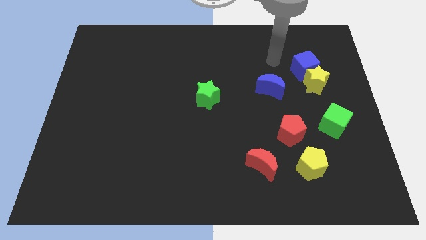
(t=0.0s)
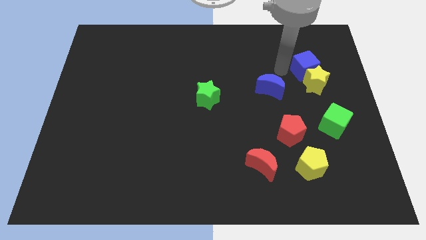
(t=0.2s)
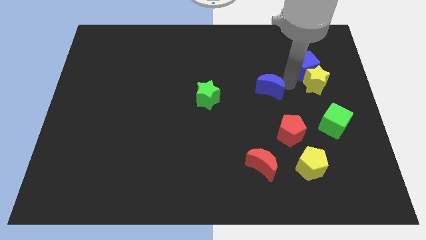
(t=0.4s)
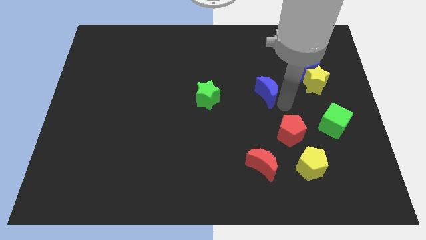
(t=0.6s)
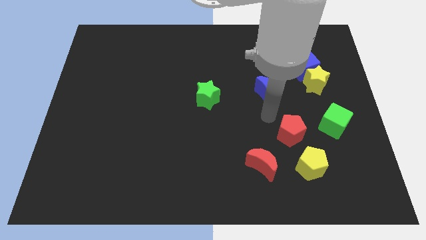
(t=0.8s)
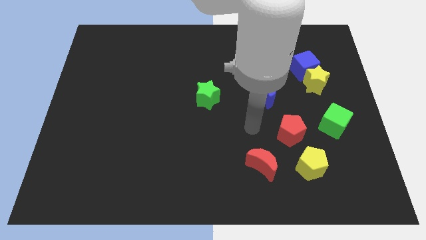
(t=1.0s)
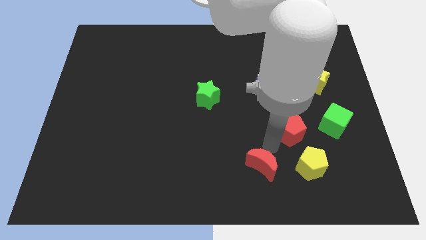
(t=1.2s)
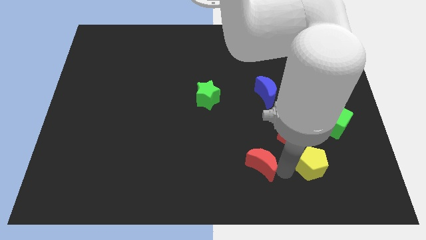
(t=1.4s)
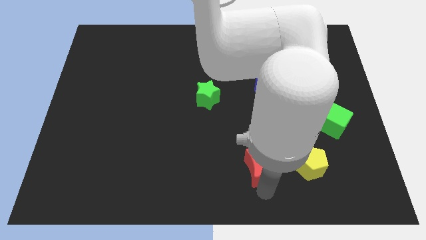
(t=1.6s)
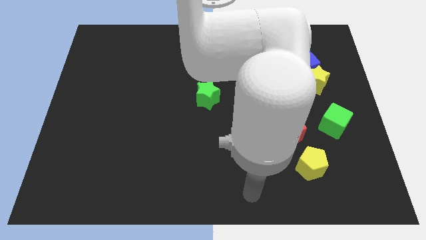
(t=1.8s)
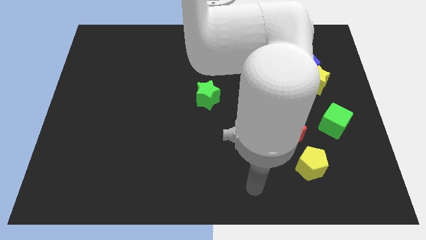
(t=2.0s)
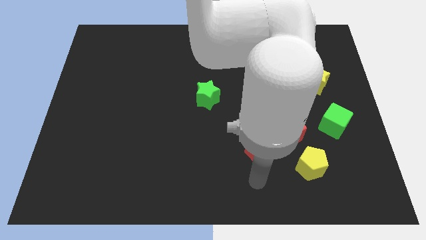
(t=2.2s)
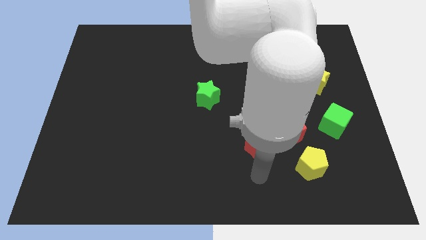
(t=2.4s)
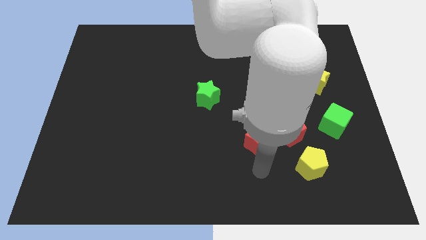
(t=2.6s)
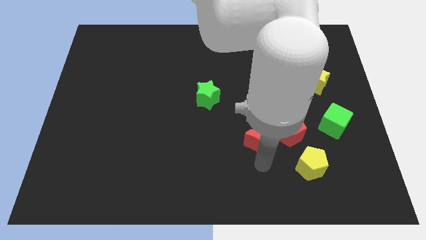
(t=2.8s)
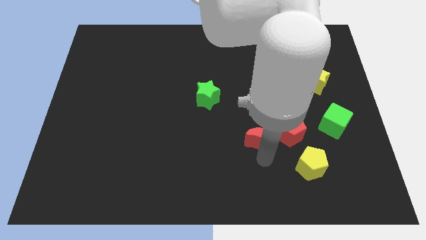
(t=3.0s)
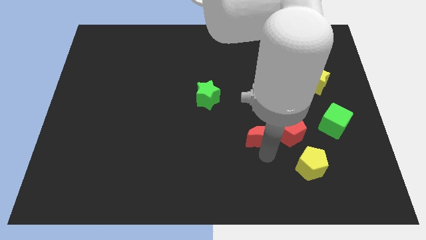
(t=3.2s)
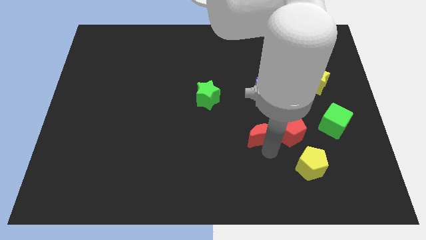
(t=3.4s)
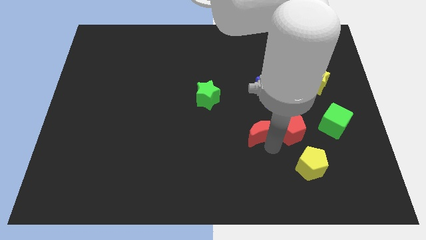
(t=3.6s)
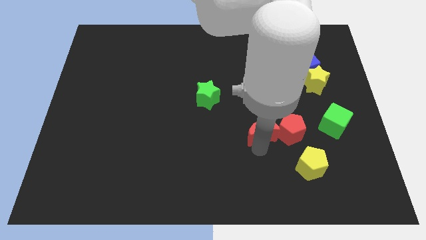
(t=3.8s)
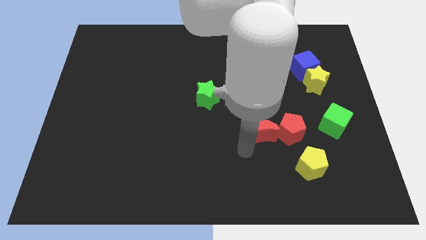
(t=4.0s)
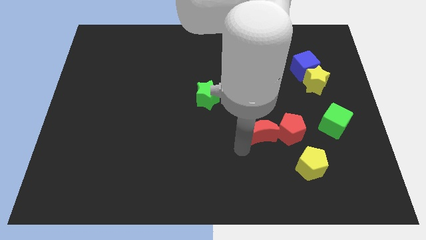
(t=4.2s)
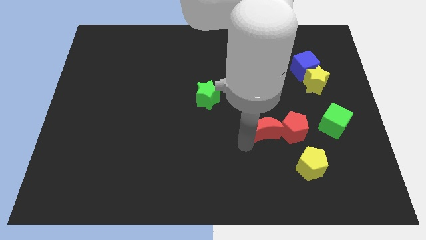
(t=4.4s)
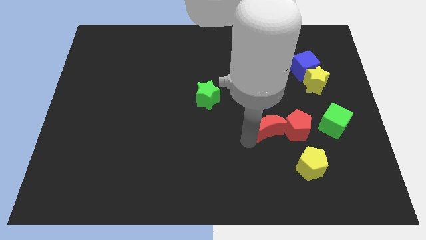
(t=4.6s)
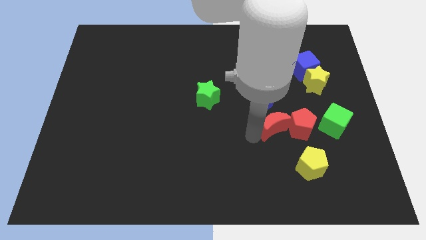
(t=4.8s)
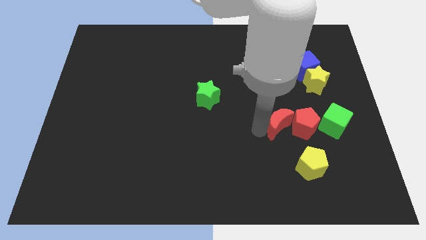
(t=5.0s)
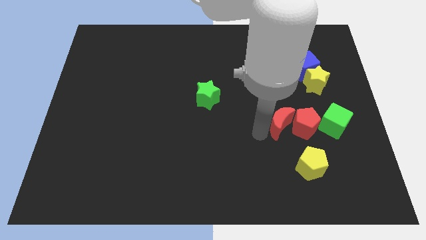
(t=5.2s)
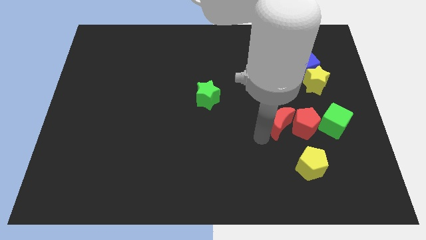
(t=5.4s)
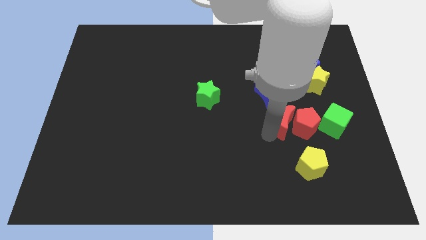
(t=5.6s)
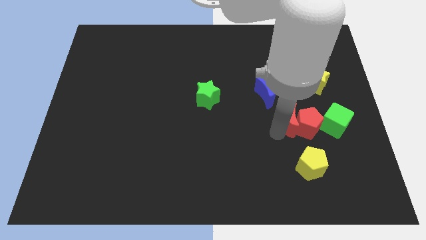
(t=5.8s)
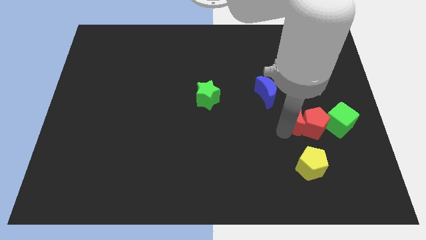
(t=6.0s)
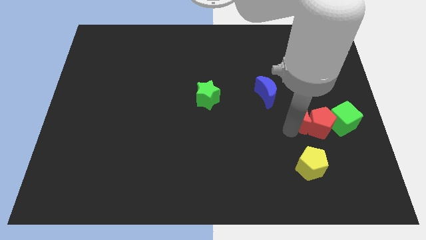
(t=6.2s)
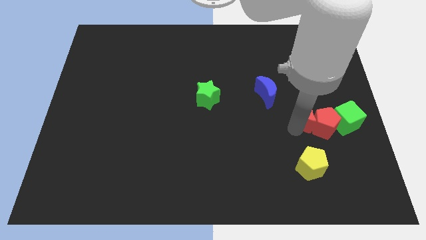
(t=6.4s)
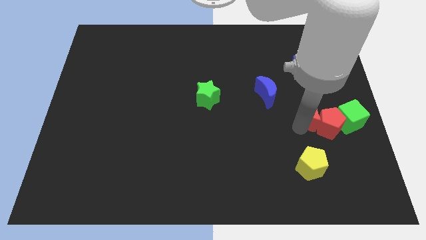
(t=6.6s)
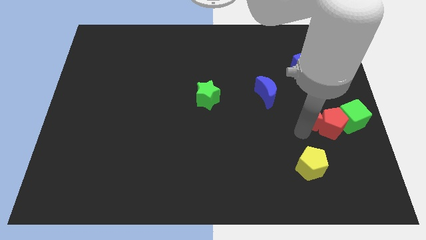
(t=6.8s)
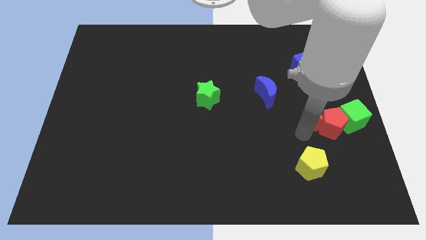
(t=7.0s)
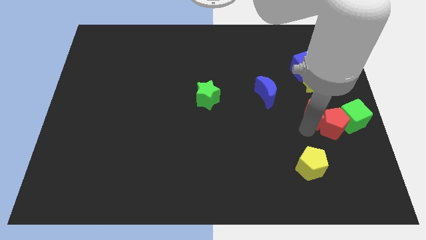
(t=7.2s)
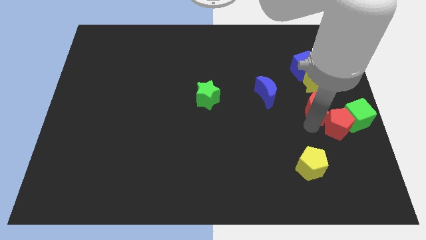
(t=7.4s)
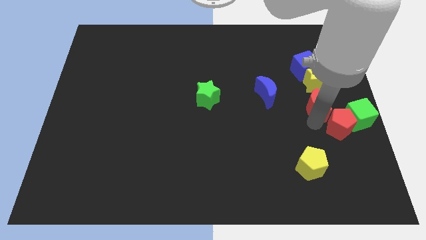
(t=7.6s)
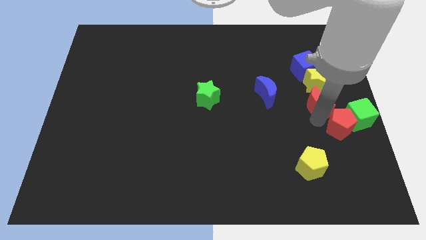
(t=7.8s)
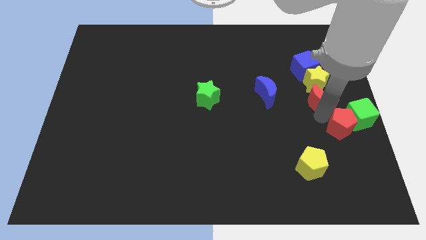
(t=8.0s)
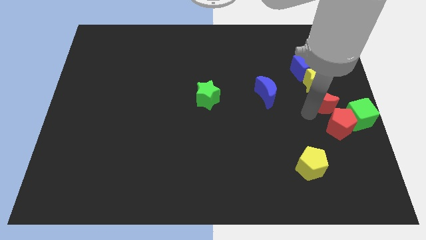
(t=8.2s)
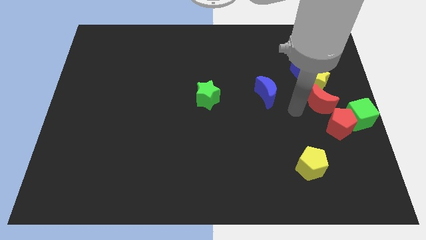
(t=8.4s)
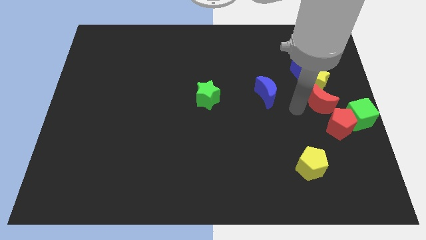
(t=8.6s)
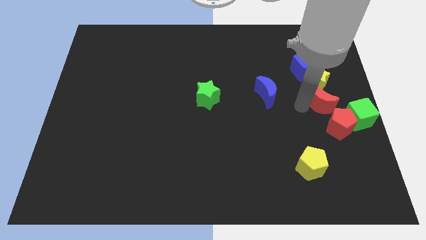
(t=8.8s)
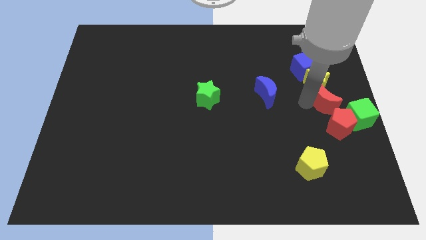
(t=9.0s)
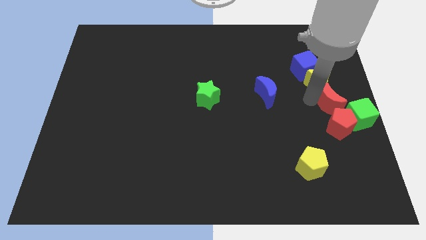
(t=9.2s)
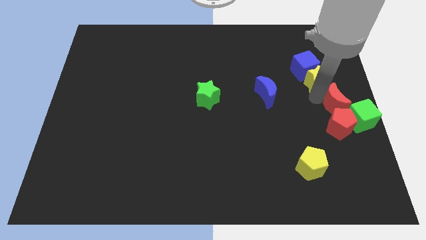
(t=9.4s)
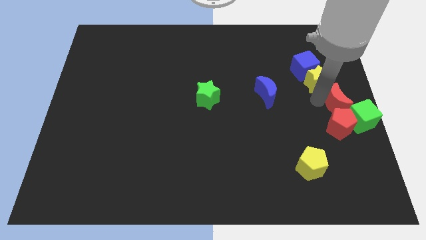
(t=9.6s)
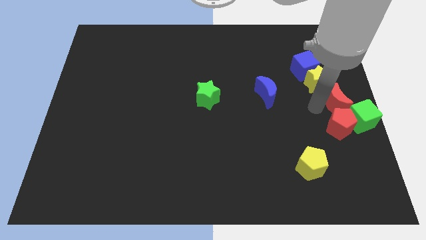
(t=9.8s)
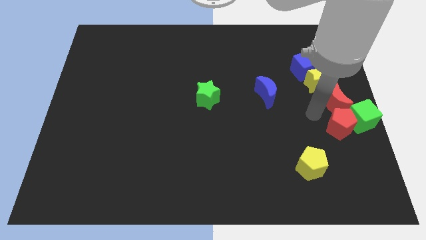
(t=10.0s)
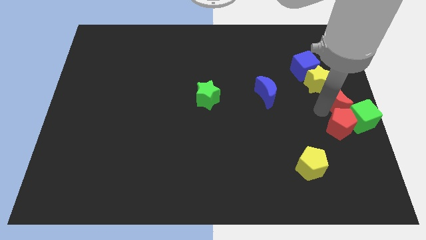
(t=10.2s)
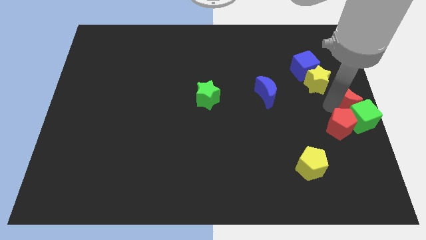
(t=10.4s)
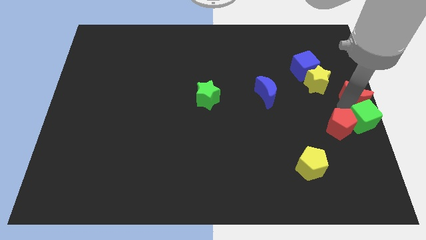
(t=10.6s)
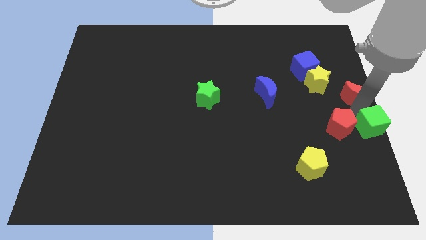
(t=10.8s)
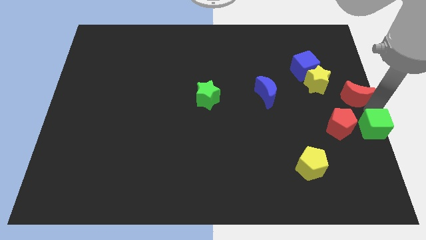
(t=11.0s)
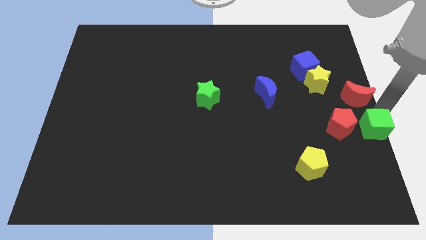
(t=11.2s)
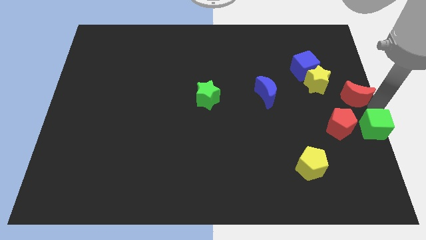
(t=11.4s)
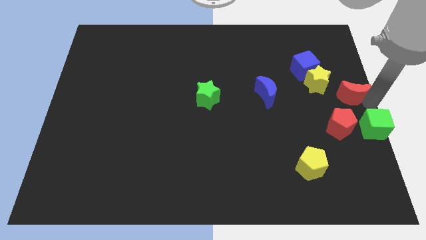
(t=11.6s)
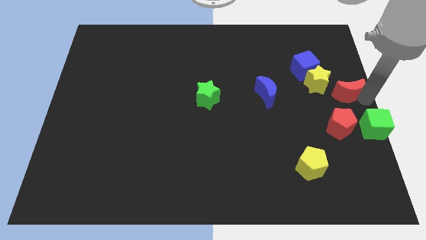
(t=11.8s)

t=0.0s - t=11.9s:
slide the red moon diagonally down and to the right of the blue cube

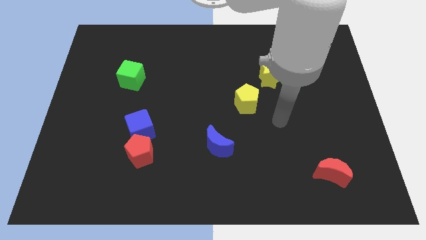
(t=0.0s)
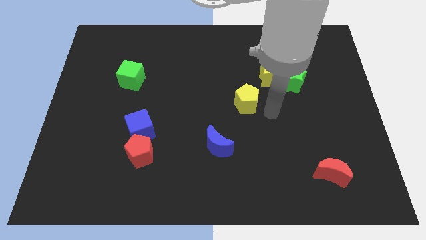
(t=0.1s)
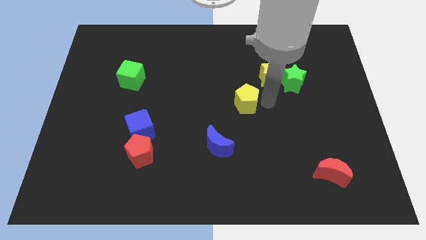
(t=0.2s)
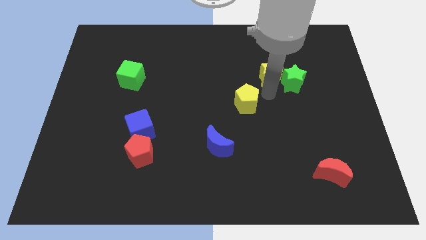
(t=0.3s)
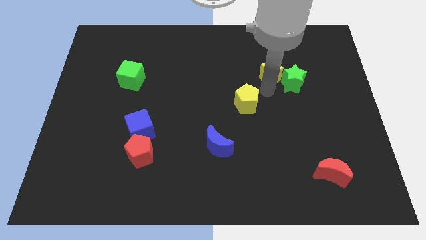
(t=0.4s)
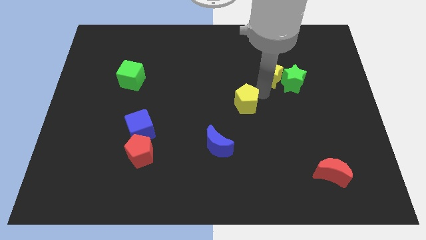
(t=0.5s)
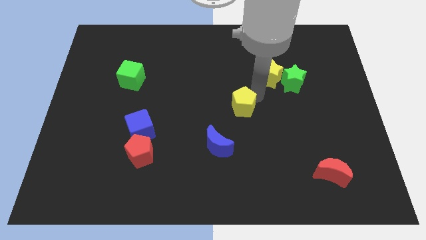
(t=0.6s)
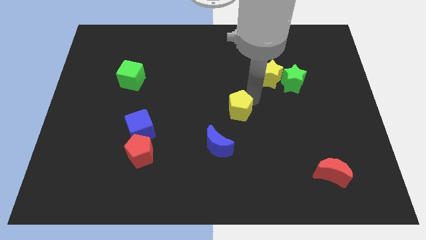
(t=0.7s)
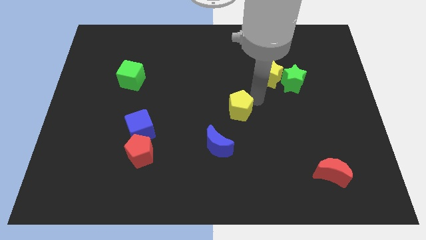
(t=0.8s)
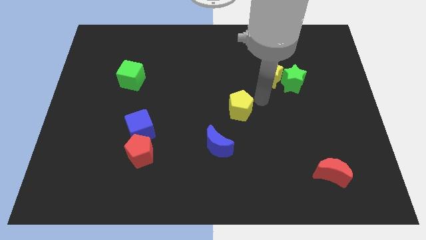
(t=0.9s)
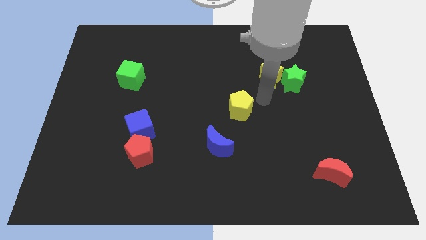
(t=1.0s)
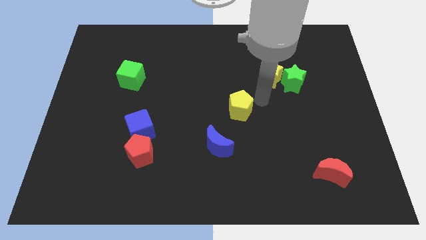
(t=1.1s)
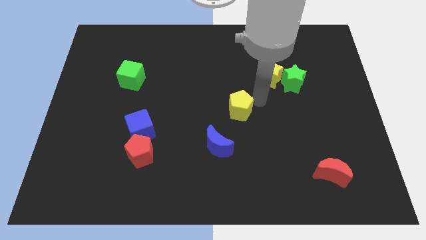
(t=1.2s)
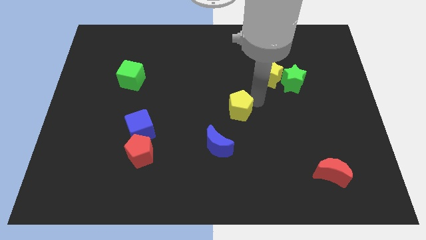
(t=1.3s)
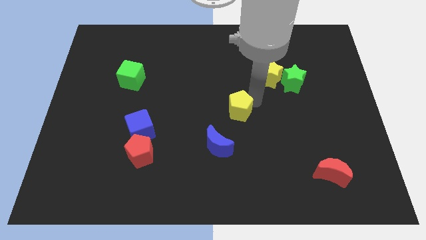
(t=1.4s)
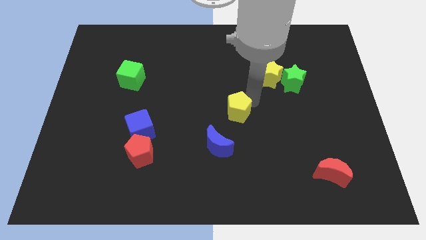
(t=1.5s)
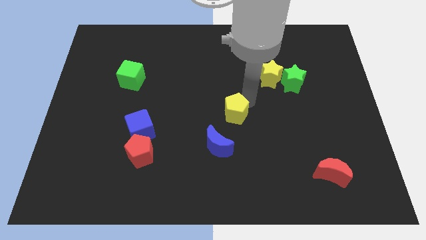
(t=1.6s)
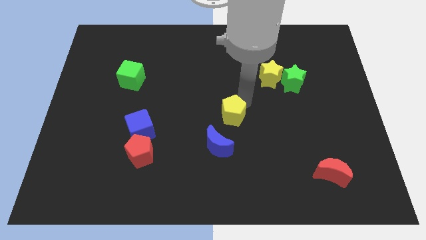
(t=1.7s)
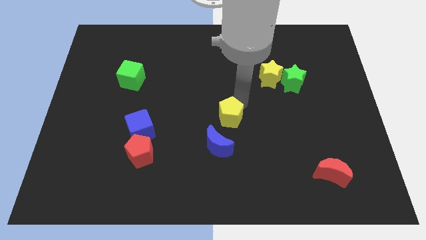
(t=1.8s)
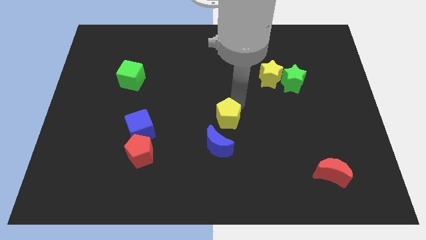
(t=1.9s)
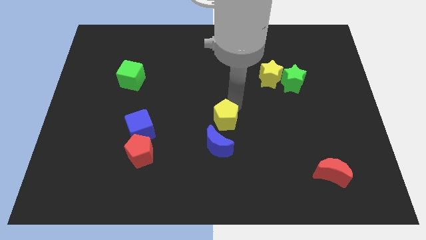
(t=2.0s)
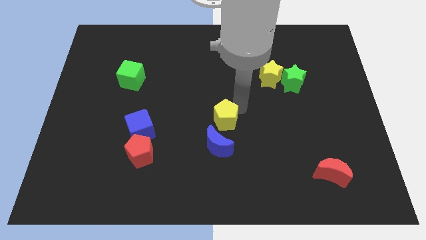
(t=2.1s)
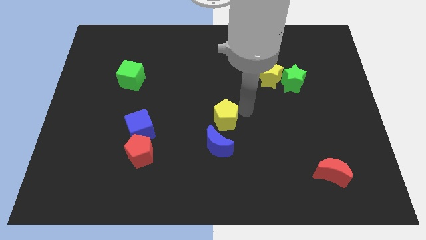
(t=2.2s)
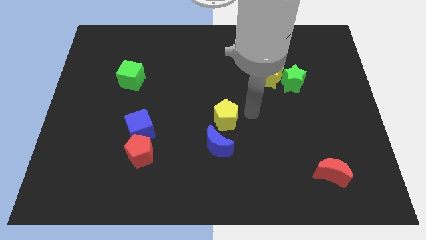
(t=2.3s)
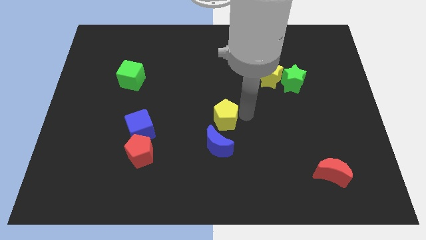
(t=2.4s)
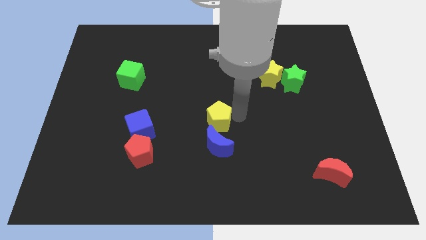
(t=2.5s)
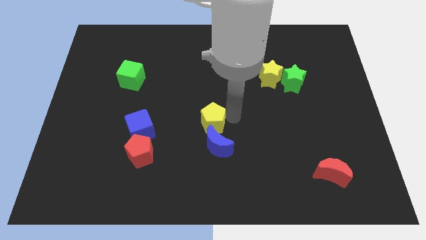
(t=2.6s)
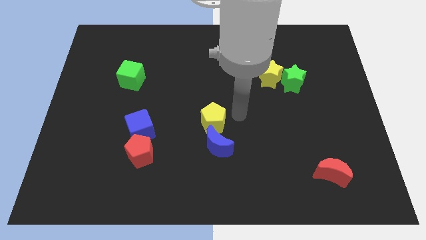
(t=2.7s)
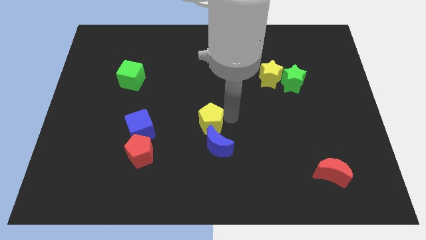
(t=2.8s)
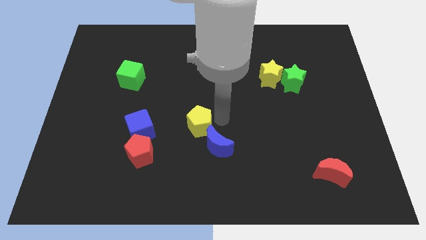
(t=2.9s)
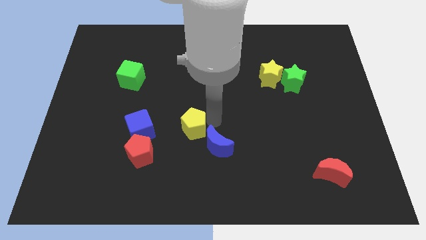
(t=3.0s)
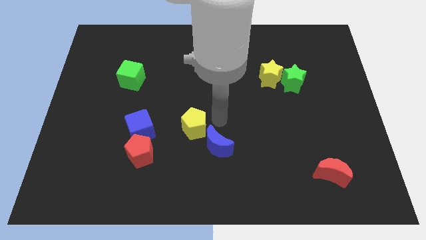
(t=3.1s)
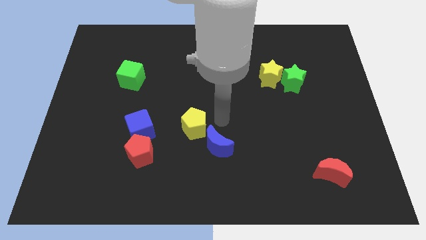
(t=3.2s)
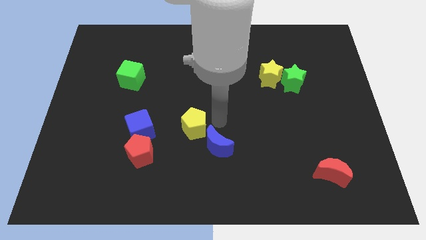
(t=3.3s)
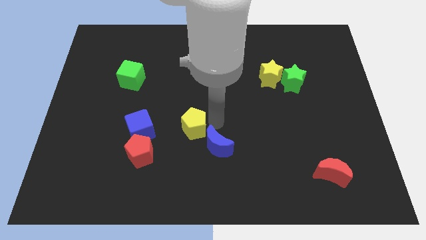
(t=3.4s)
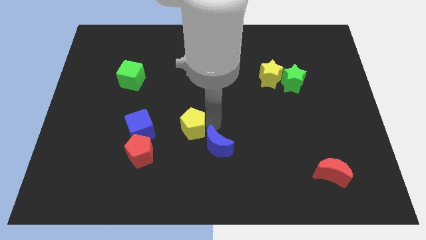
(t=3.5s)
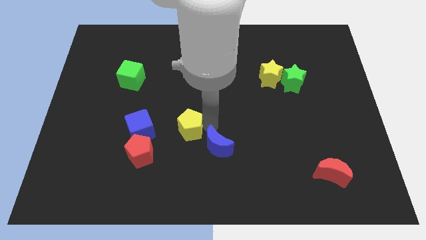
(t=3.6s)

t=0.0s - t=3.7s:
push the yellow pentagon to the top right side of the red pentagon
